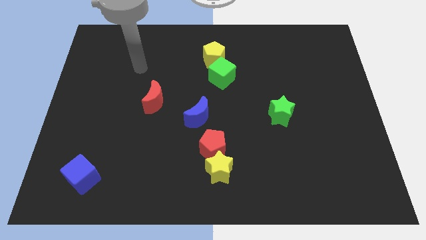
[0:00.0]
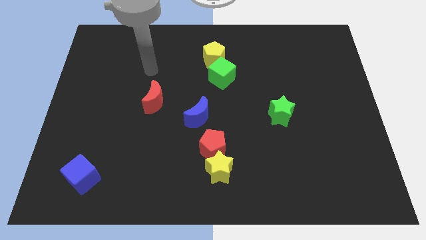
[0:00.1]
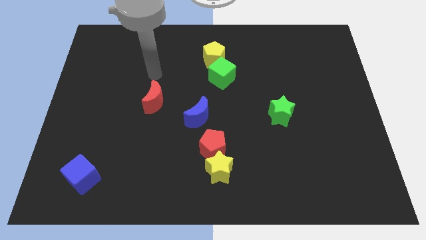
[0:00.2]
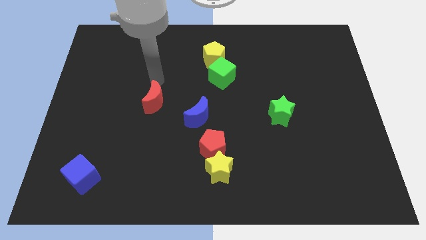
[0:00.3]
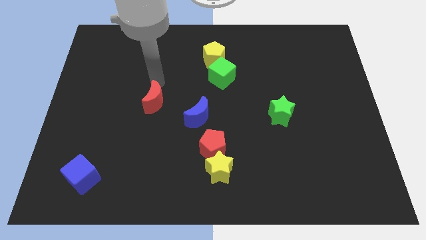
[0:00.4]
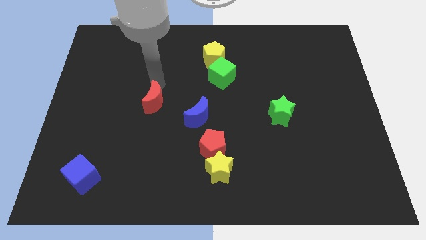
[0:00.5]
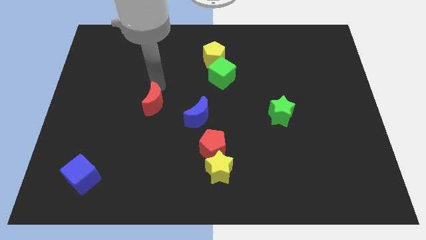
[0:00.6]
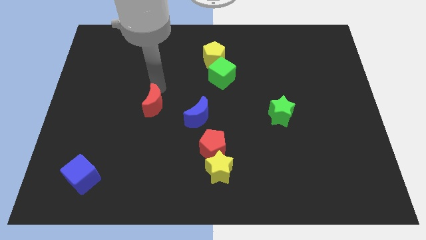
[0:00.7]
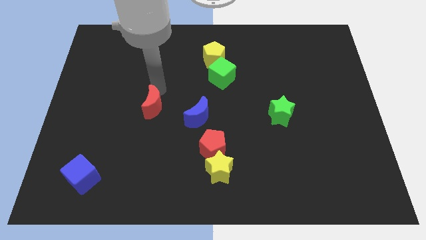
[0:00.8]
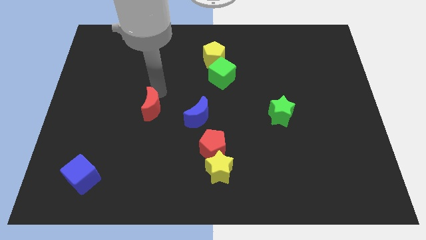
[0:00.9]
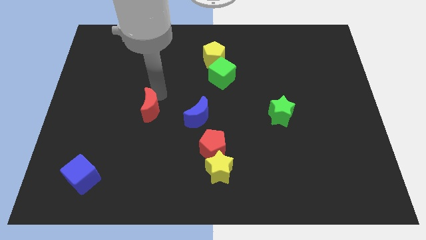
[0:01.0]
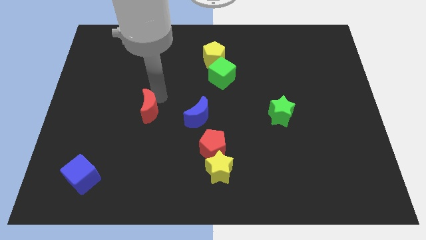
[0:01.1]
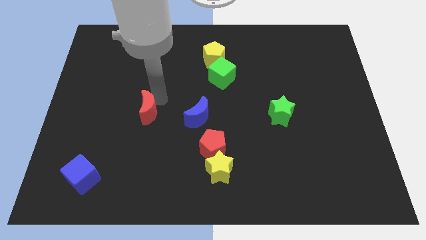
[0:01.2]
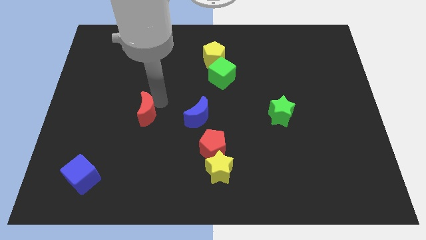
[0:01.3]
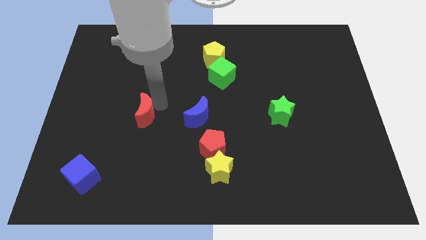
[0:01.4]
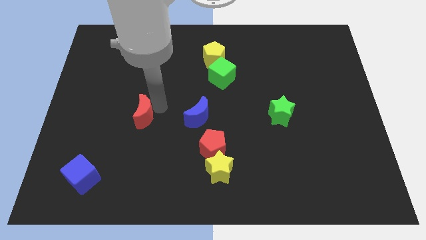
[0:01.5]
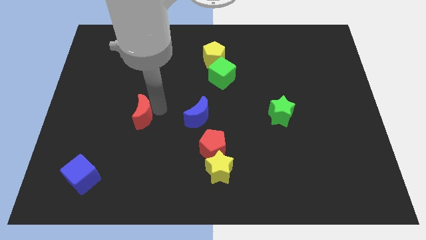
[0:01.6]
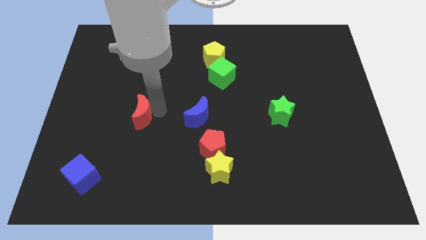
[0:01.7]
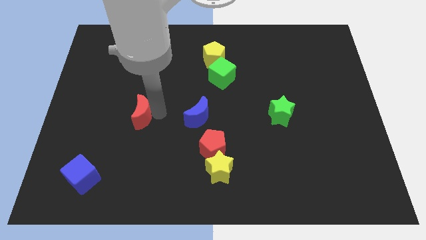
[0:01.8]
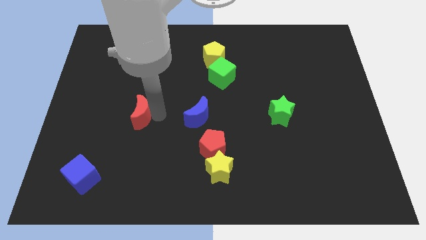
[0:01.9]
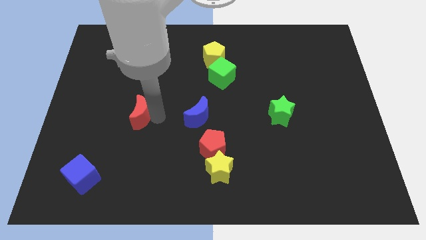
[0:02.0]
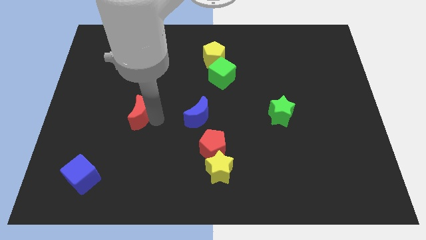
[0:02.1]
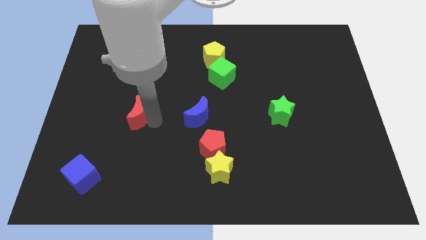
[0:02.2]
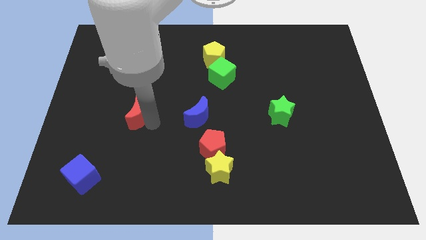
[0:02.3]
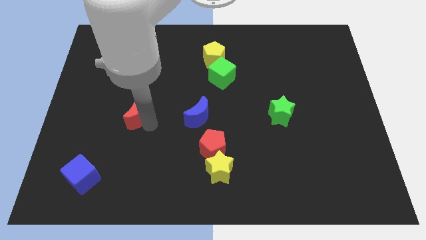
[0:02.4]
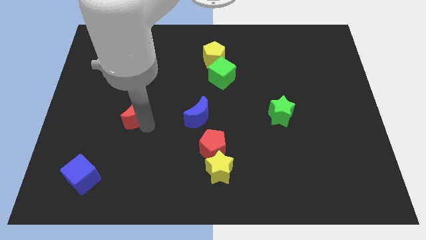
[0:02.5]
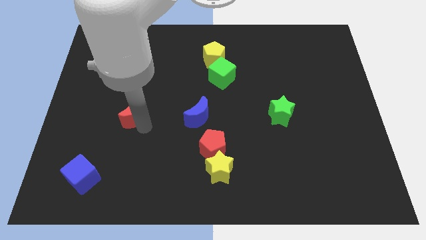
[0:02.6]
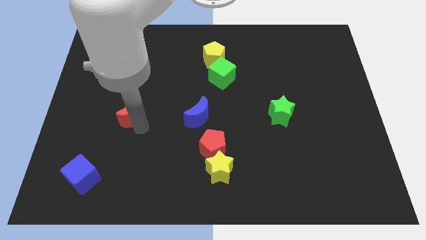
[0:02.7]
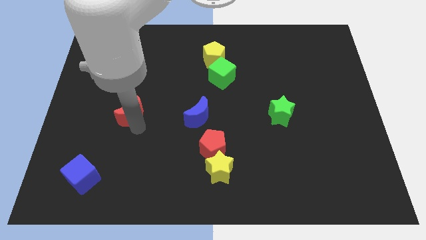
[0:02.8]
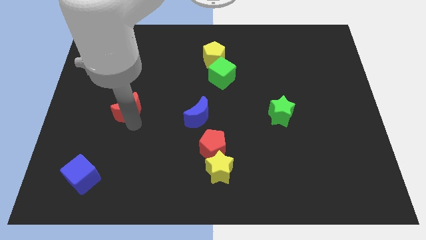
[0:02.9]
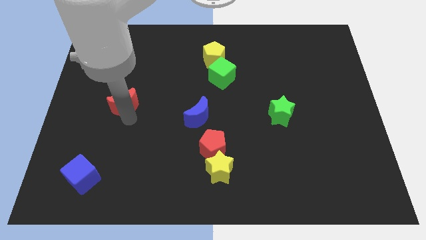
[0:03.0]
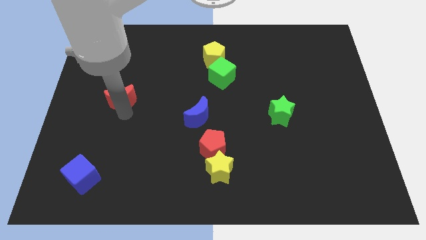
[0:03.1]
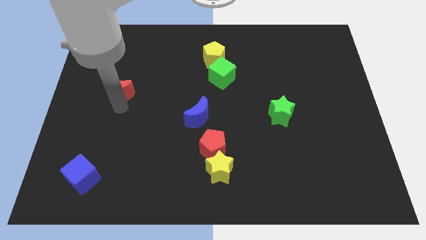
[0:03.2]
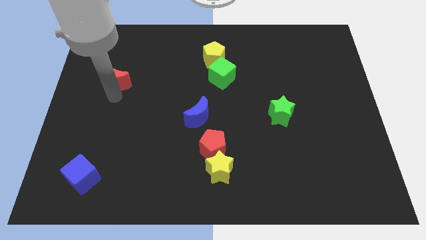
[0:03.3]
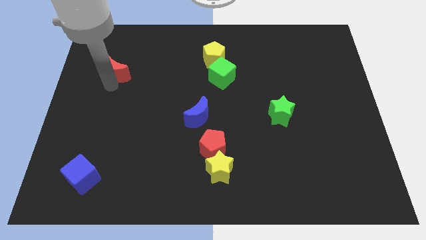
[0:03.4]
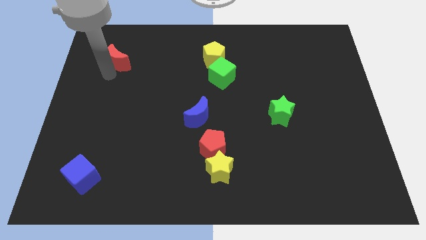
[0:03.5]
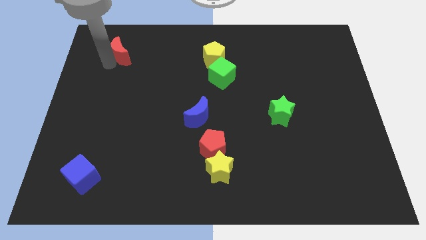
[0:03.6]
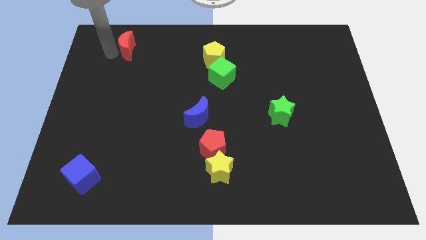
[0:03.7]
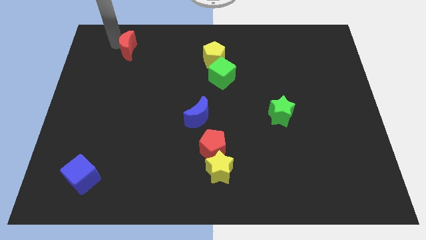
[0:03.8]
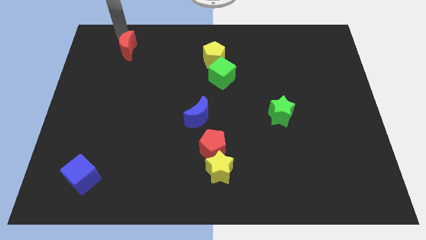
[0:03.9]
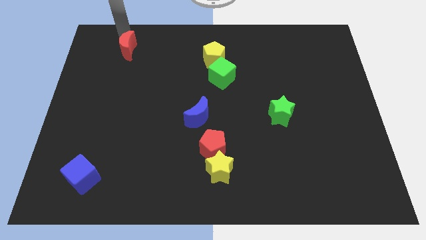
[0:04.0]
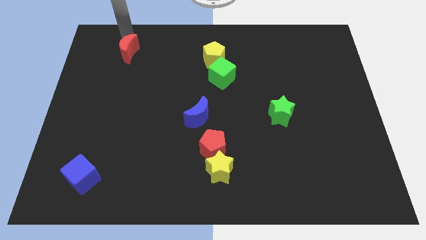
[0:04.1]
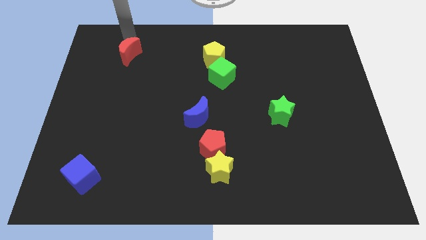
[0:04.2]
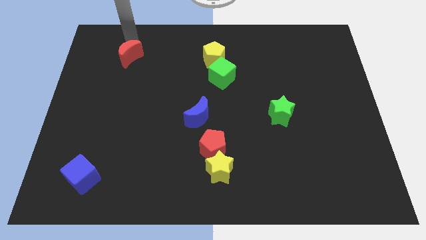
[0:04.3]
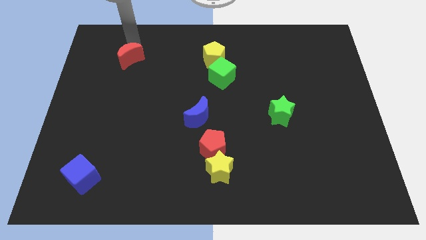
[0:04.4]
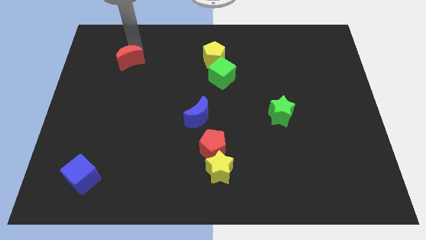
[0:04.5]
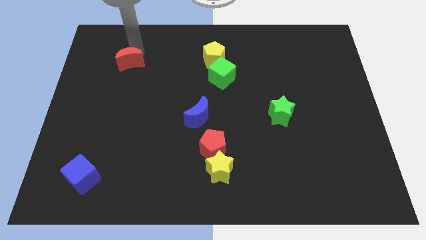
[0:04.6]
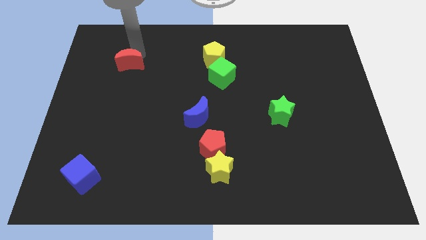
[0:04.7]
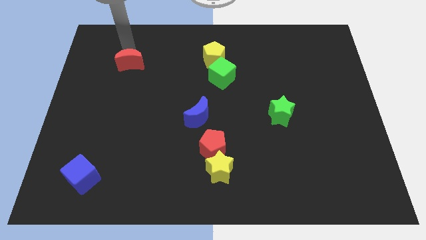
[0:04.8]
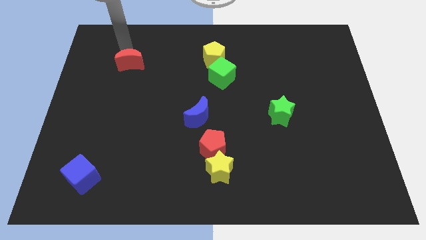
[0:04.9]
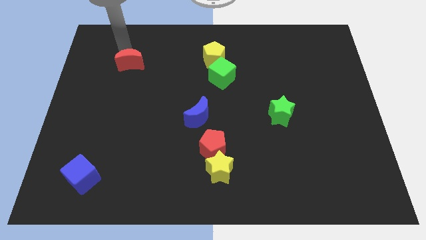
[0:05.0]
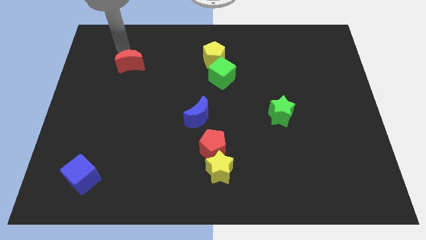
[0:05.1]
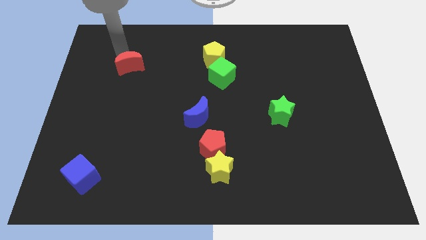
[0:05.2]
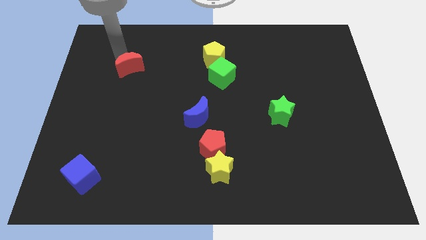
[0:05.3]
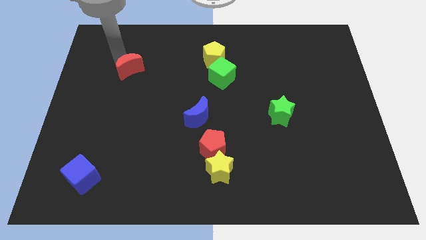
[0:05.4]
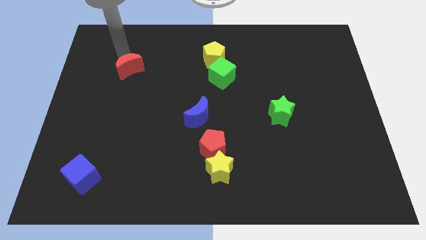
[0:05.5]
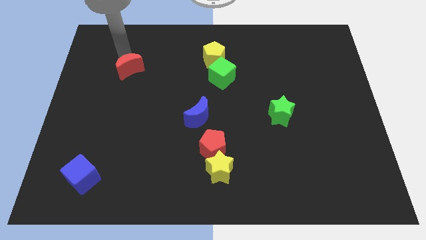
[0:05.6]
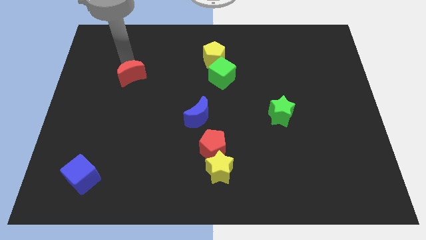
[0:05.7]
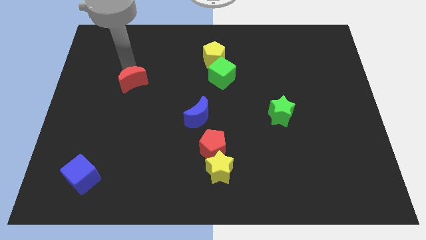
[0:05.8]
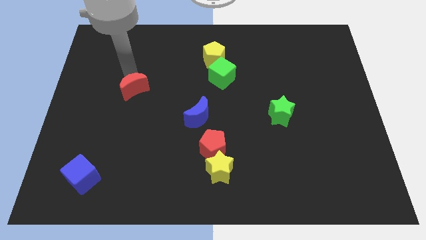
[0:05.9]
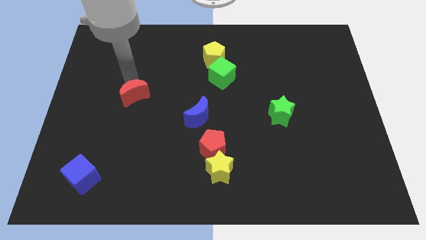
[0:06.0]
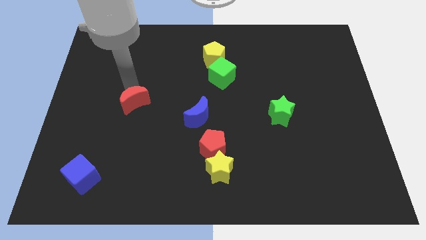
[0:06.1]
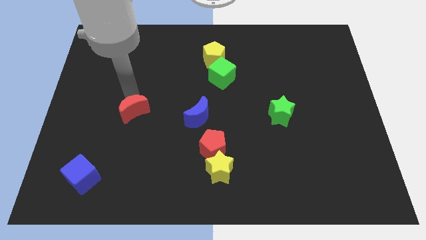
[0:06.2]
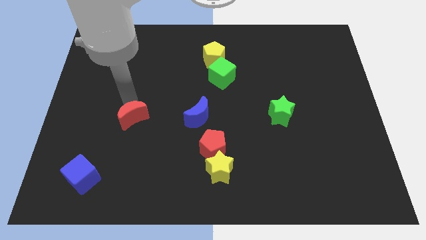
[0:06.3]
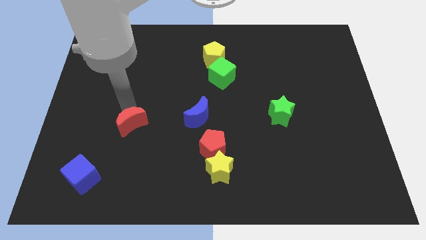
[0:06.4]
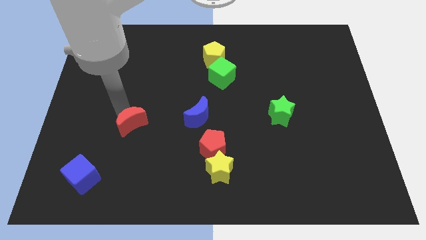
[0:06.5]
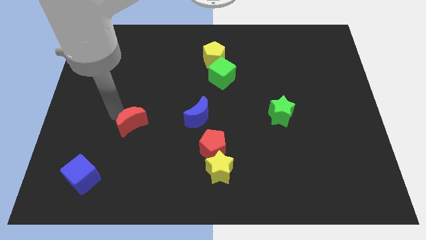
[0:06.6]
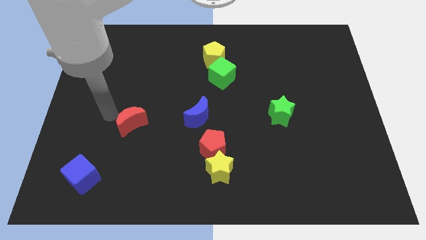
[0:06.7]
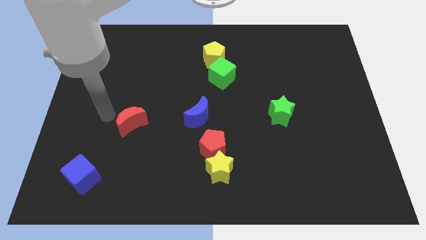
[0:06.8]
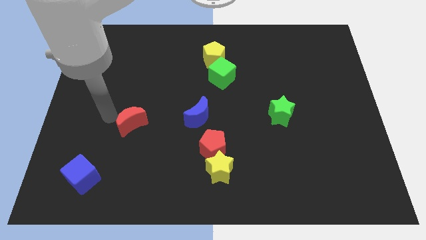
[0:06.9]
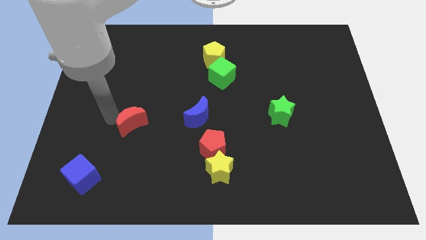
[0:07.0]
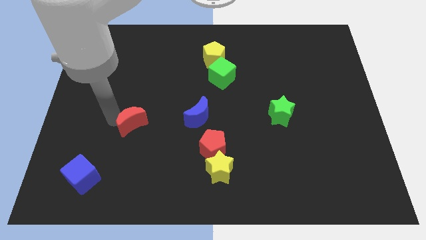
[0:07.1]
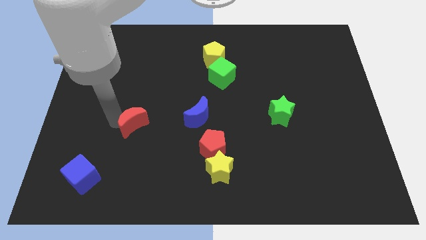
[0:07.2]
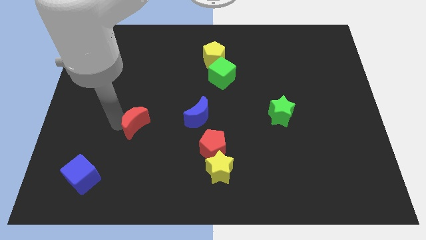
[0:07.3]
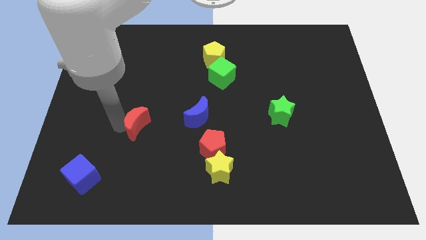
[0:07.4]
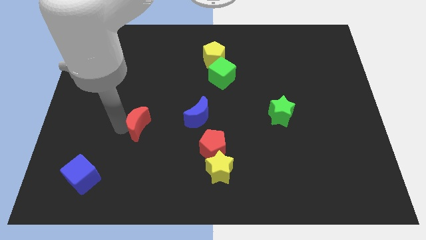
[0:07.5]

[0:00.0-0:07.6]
slightly move the red moon downwards

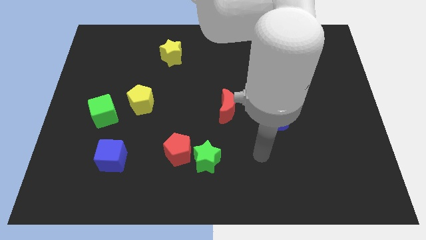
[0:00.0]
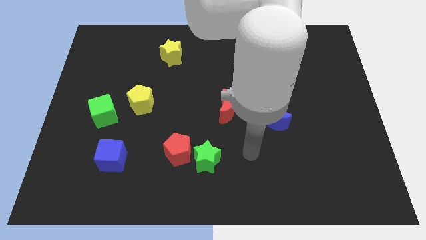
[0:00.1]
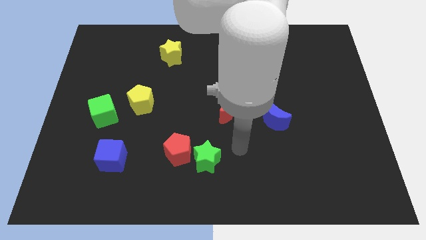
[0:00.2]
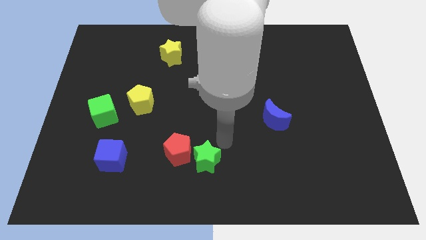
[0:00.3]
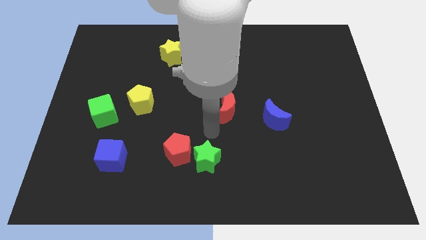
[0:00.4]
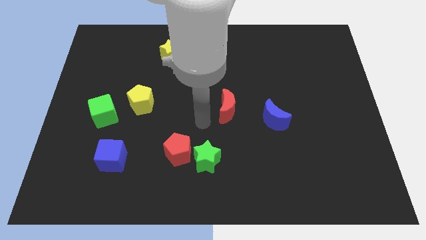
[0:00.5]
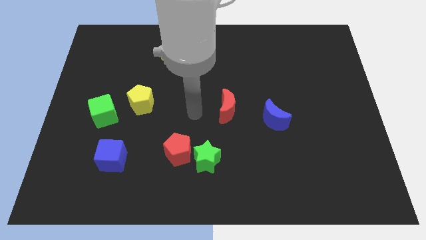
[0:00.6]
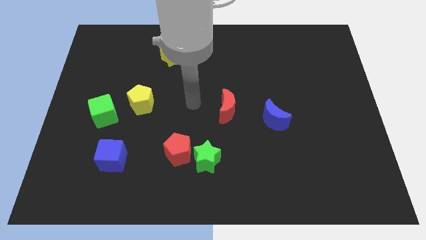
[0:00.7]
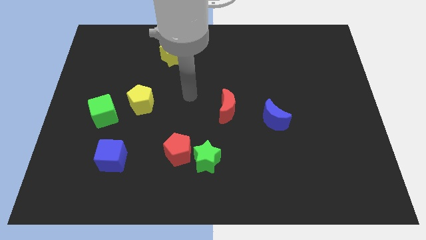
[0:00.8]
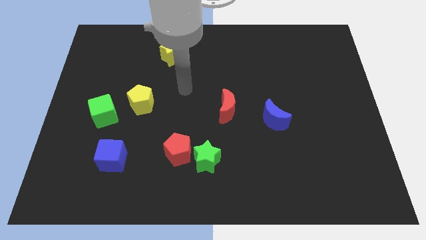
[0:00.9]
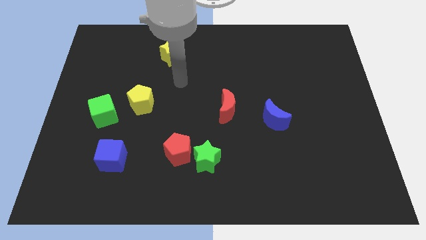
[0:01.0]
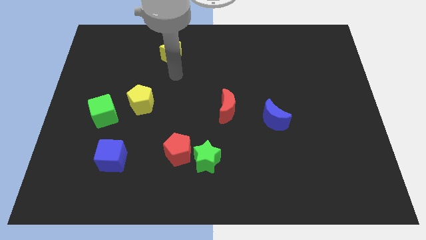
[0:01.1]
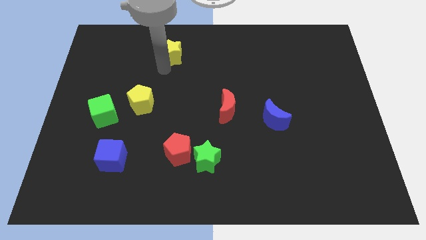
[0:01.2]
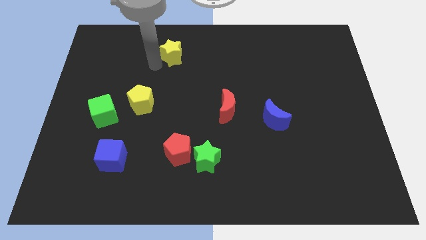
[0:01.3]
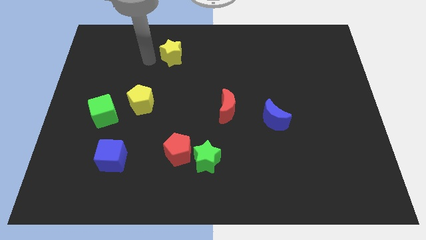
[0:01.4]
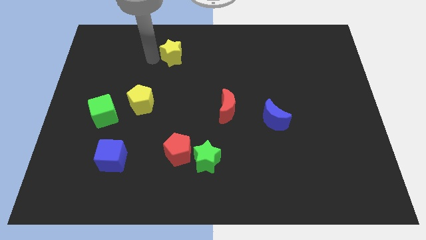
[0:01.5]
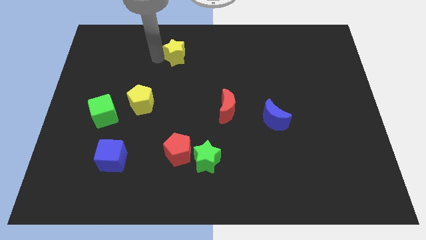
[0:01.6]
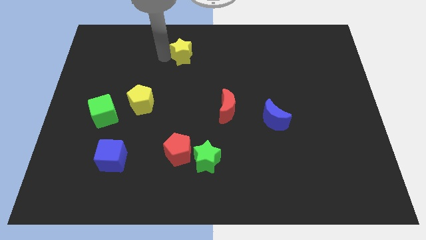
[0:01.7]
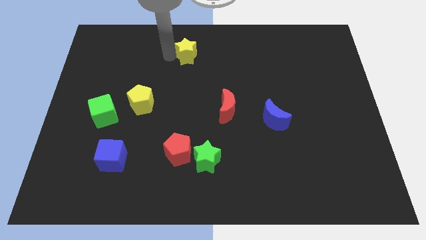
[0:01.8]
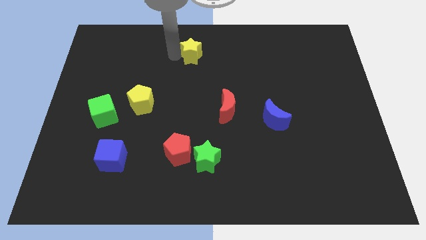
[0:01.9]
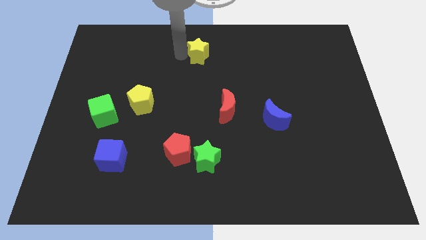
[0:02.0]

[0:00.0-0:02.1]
move the yellow star to the right a bit
